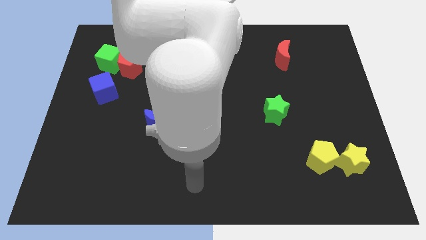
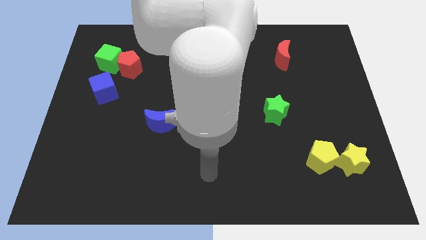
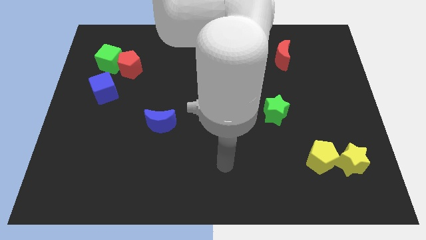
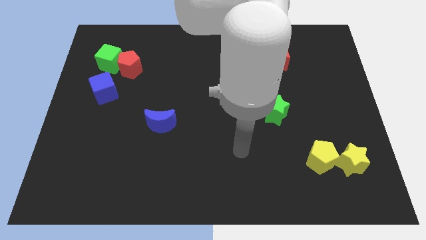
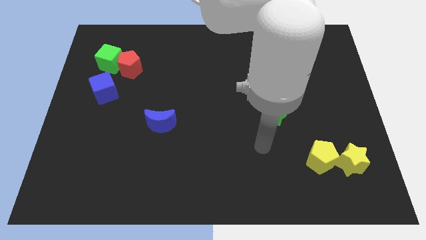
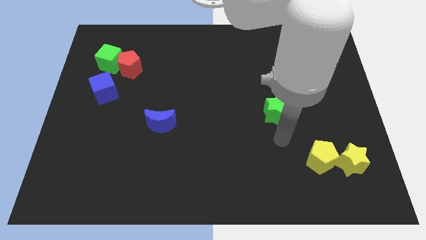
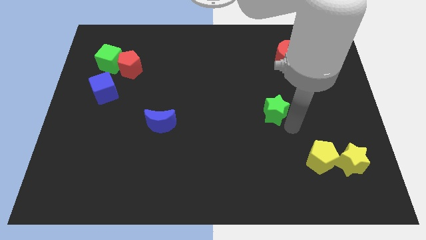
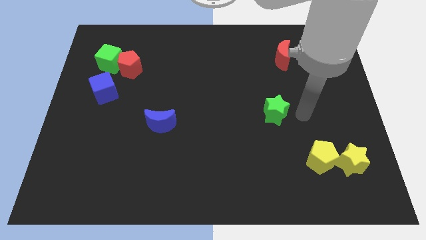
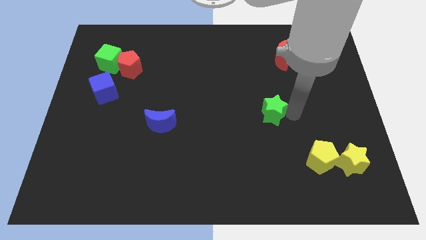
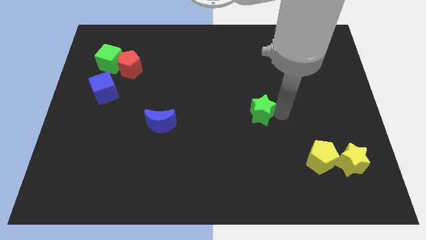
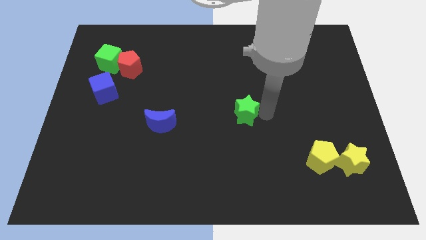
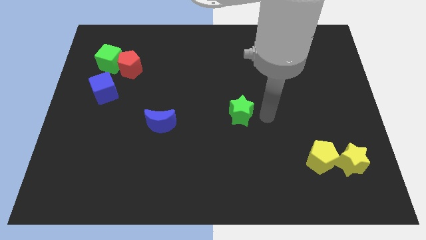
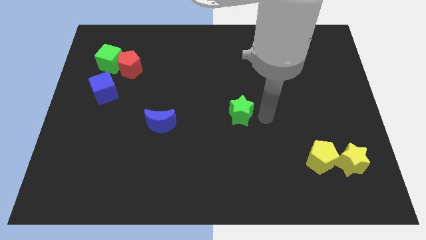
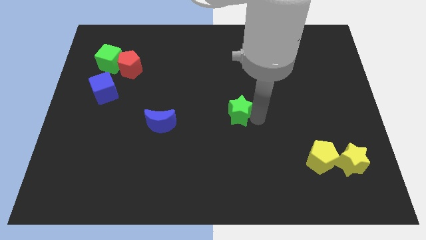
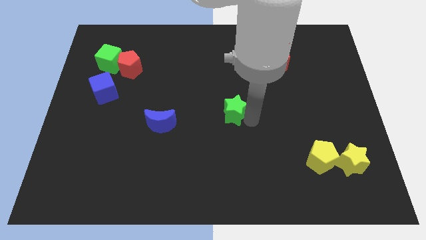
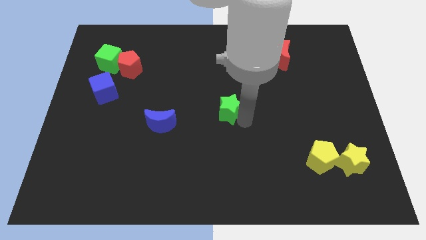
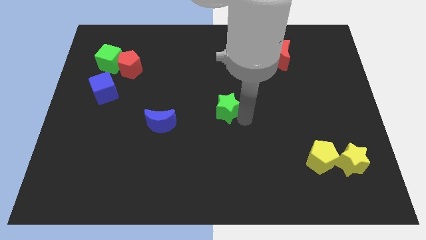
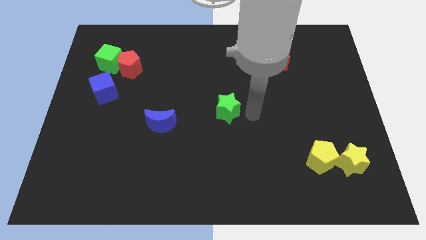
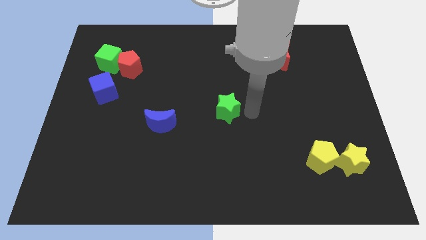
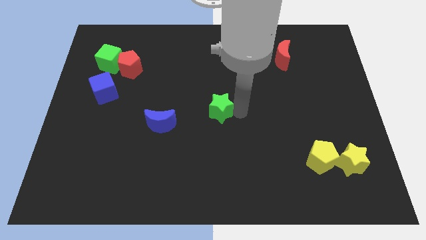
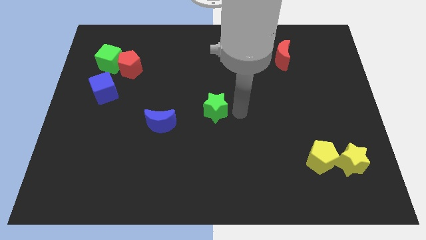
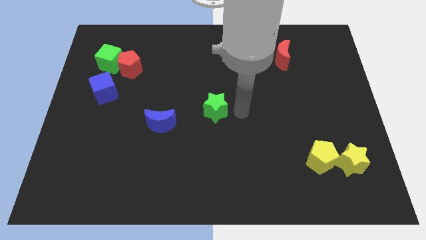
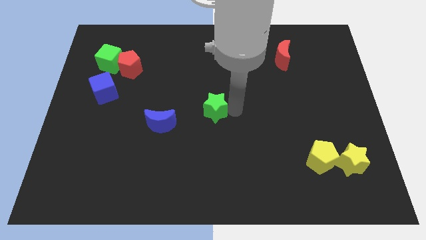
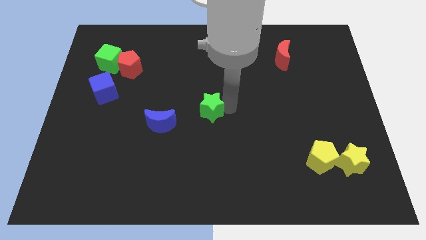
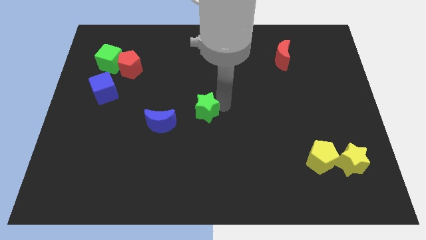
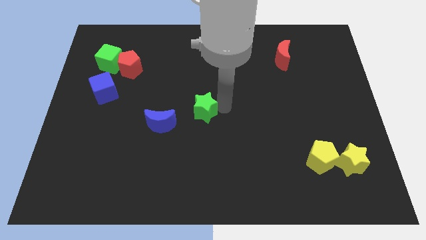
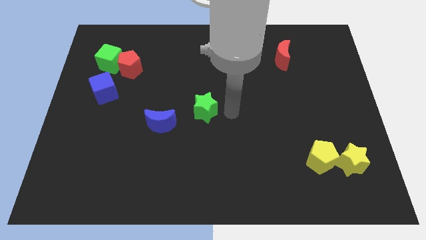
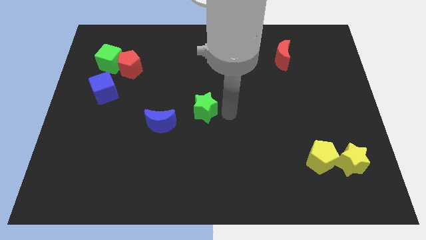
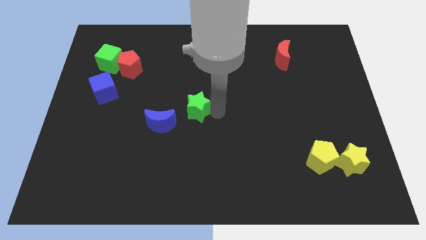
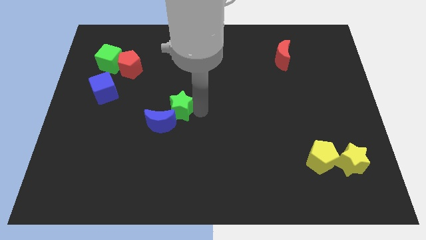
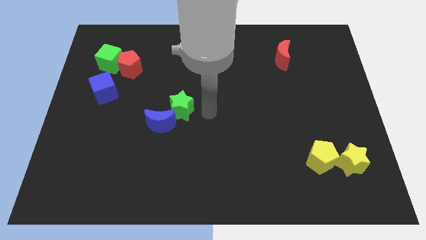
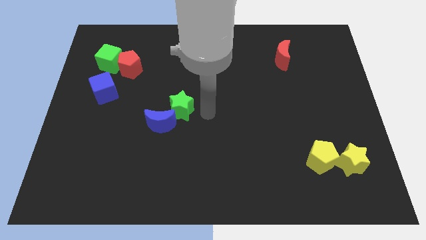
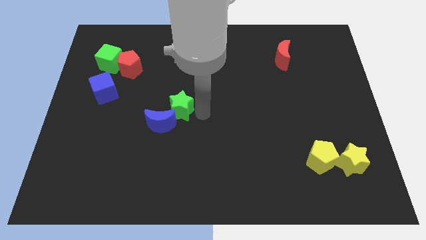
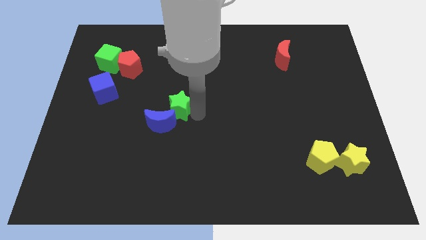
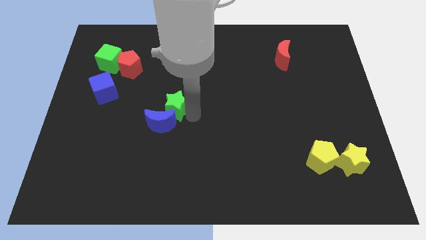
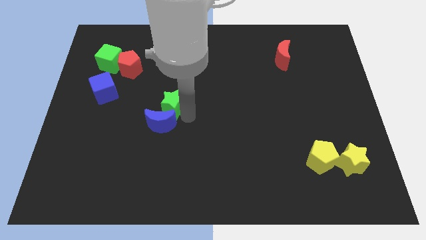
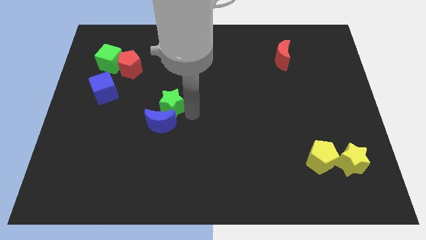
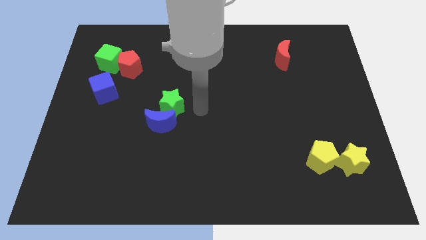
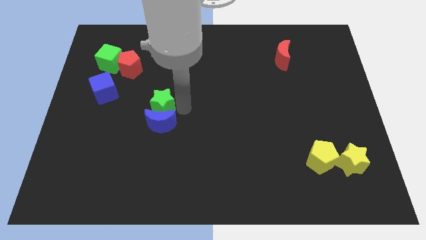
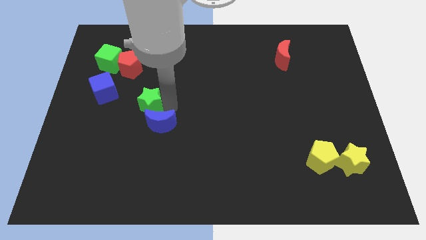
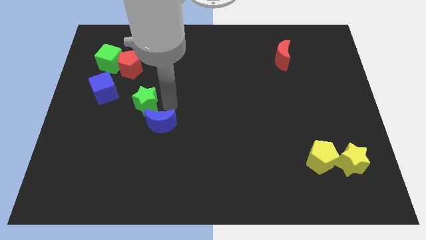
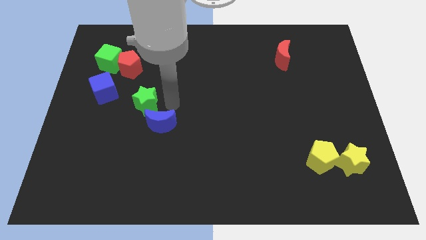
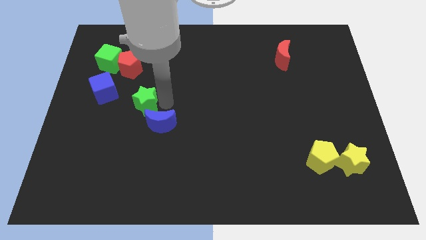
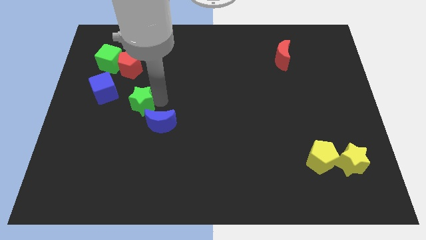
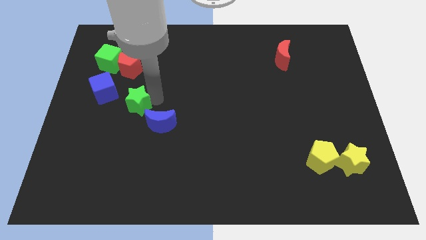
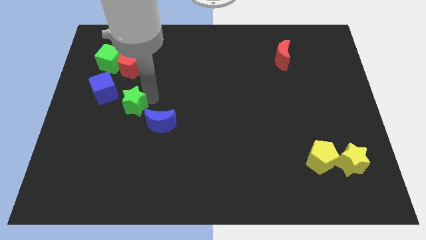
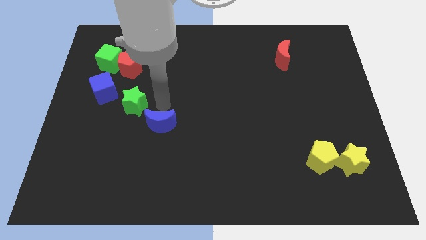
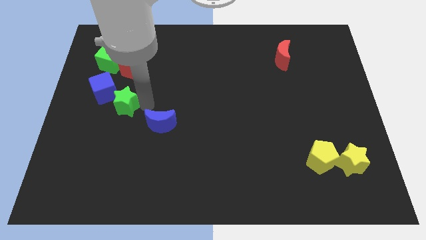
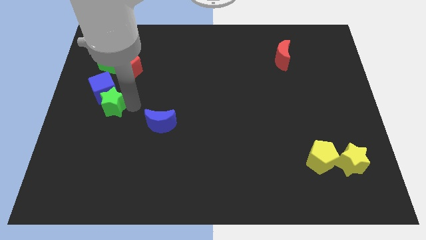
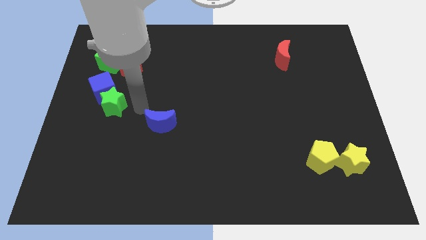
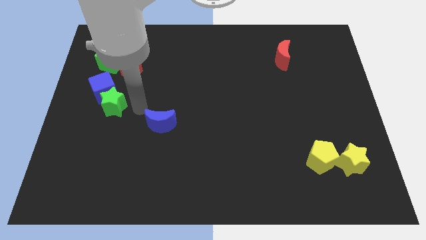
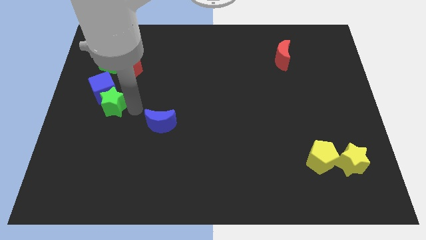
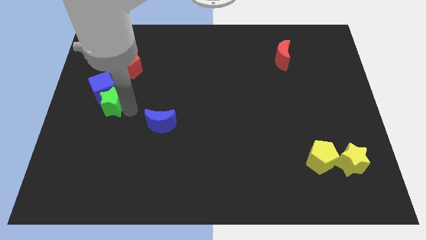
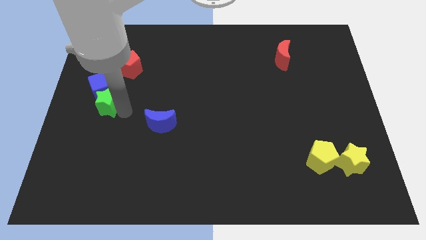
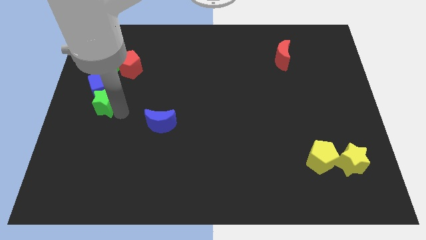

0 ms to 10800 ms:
slide the green star to the left side

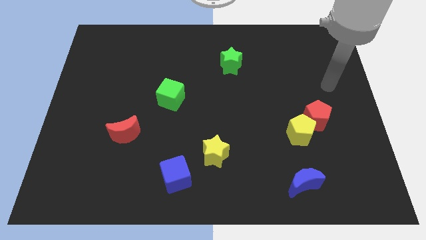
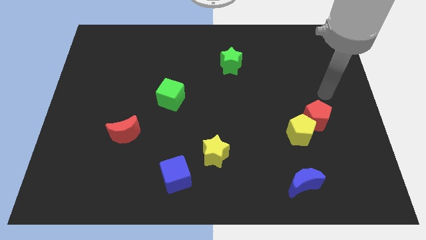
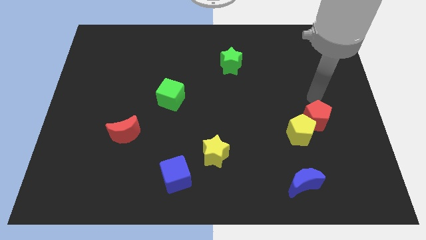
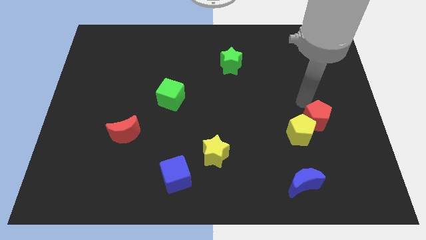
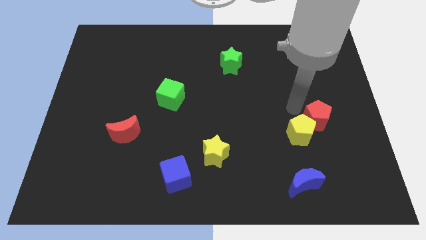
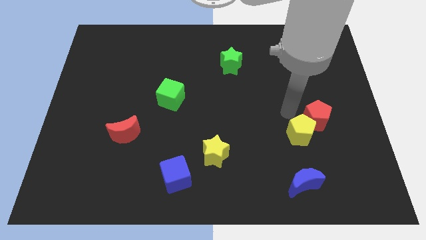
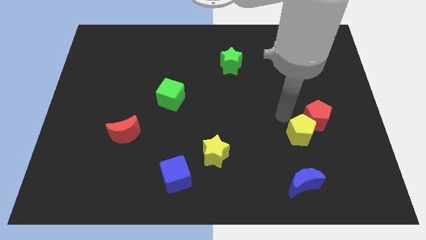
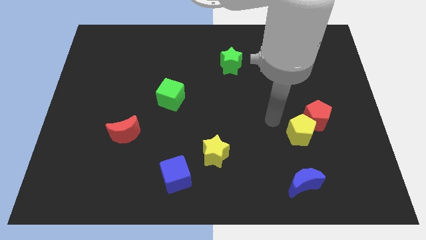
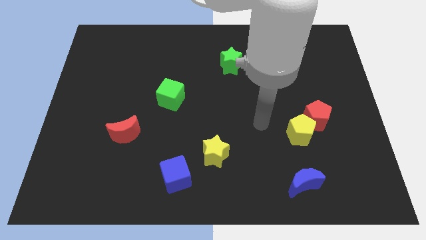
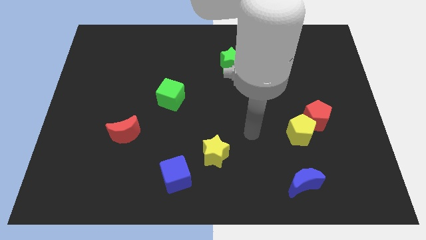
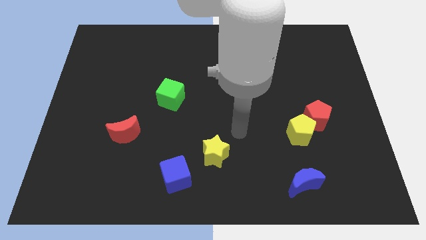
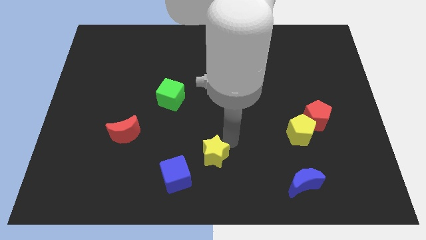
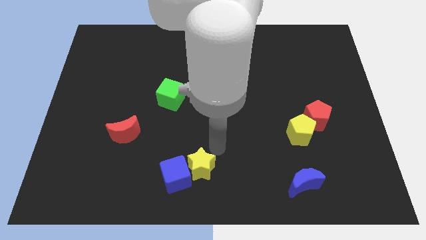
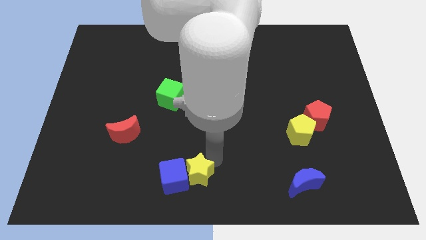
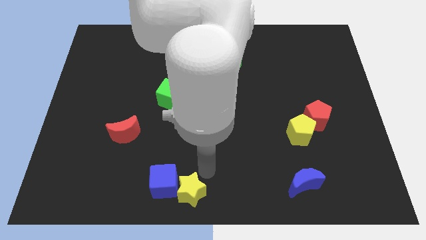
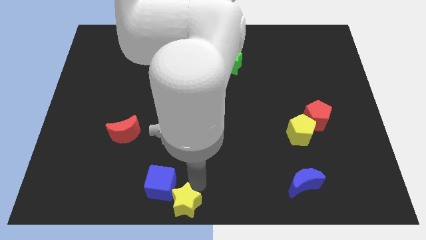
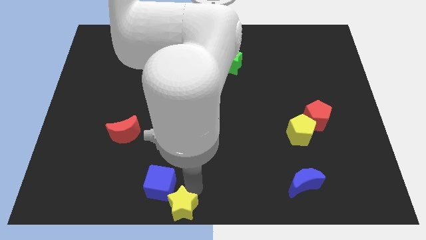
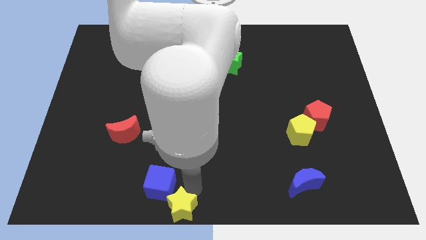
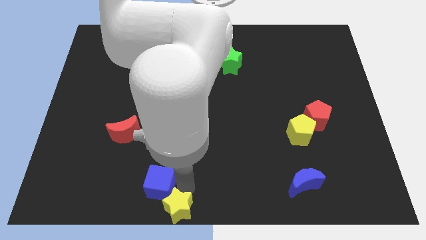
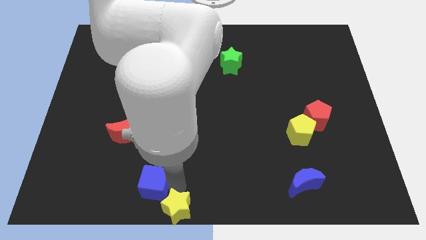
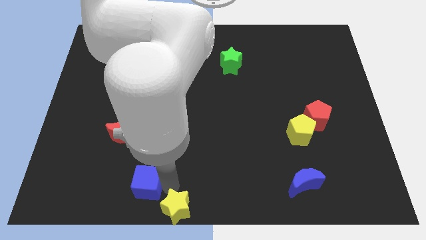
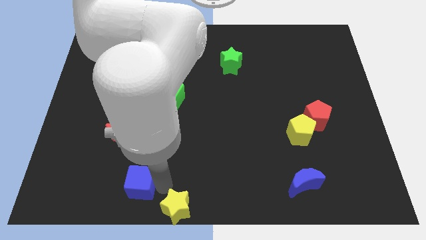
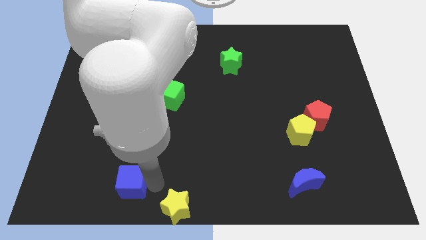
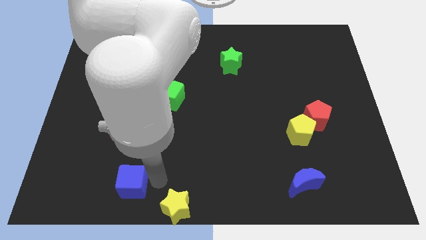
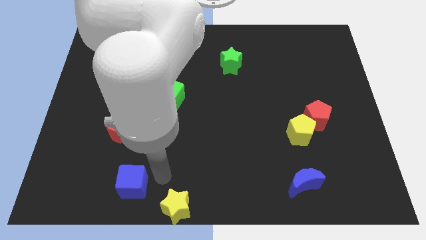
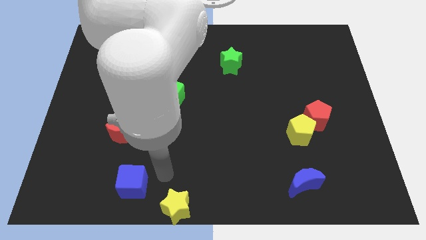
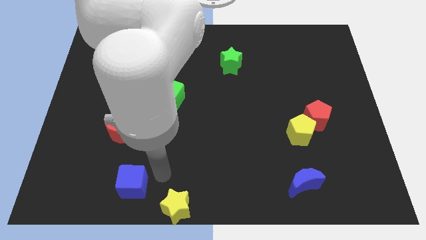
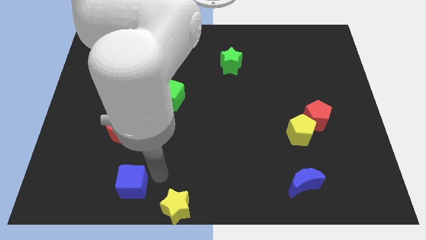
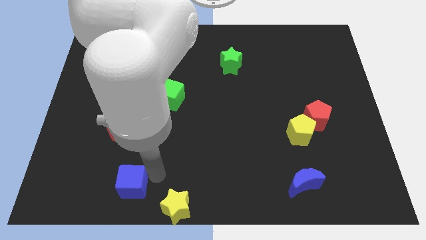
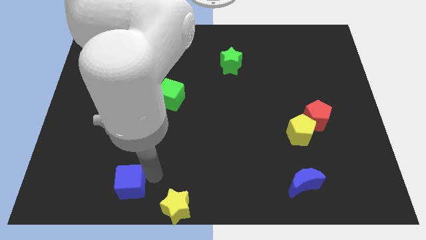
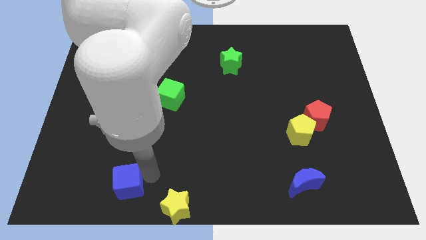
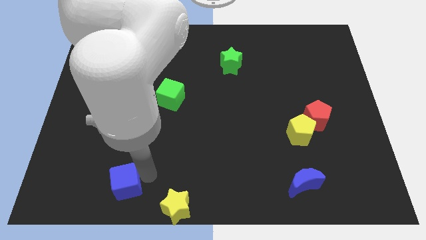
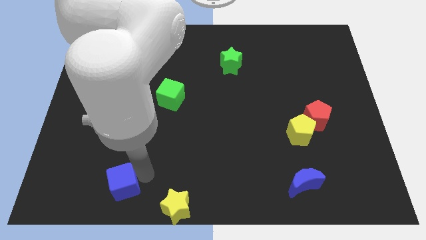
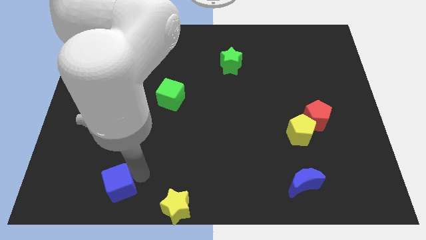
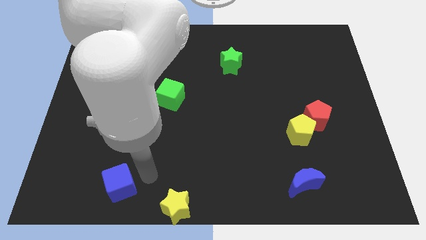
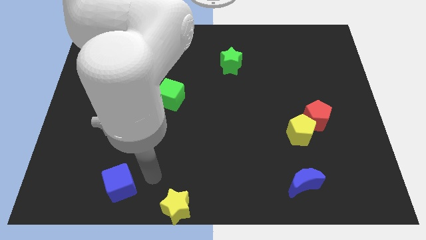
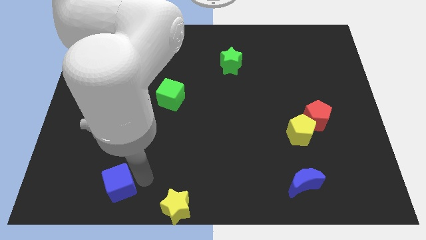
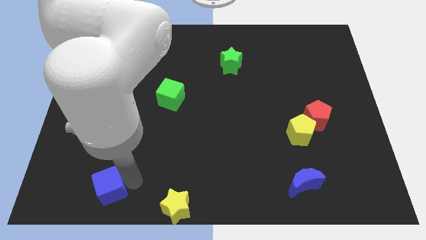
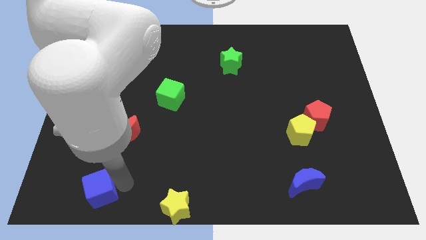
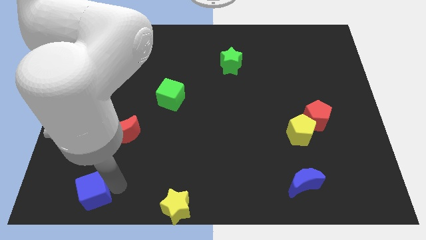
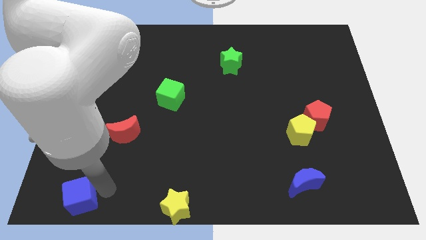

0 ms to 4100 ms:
move the blue cube to the bottom left
